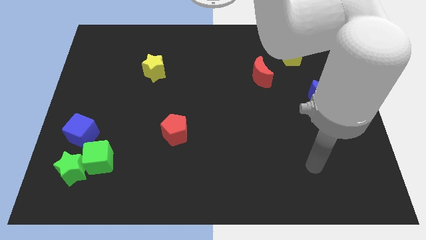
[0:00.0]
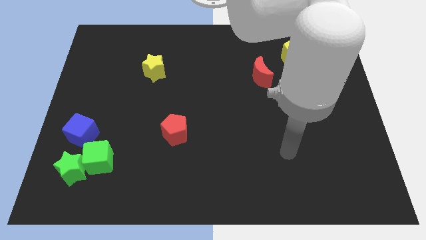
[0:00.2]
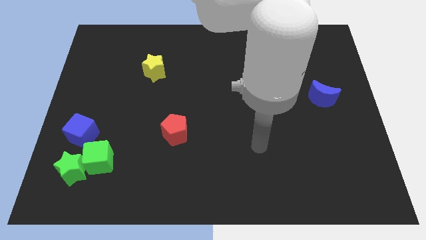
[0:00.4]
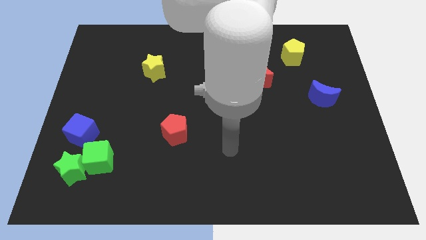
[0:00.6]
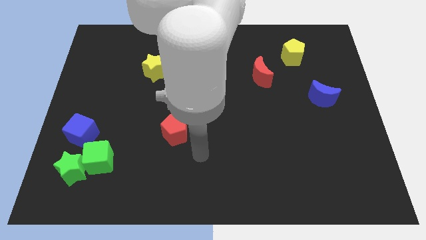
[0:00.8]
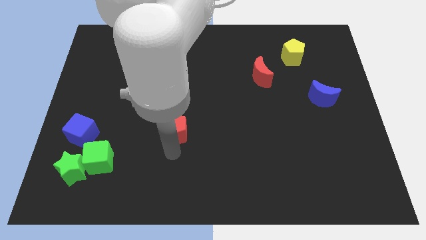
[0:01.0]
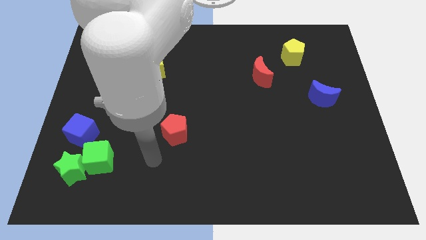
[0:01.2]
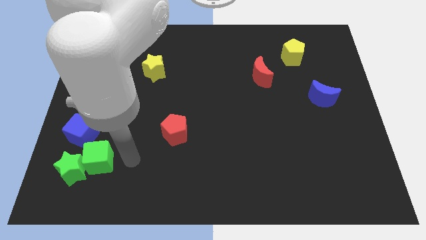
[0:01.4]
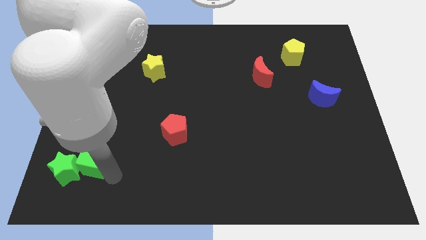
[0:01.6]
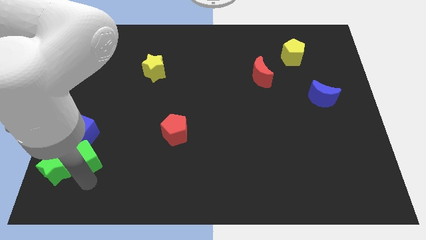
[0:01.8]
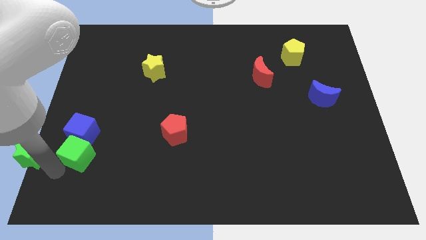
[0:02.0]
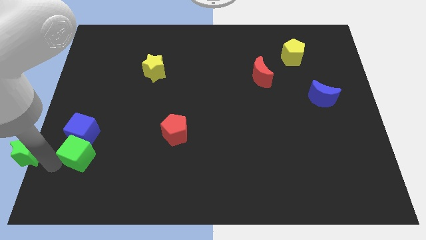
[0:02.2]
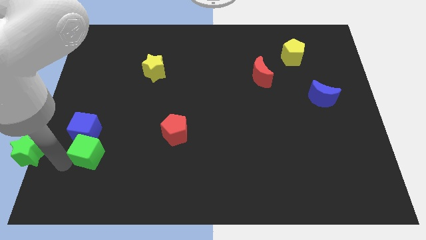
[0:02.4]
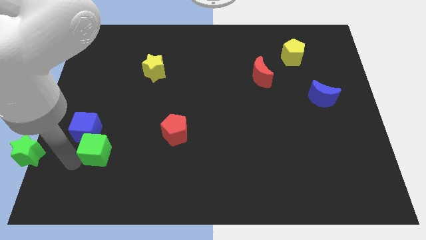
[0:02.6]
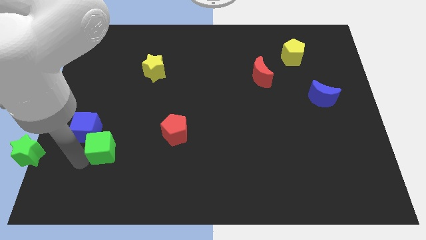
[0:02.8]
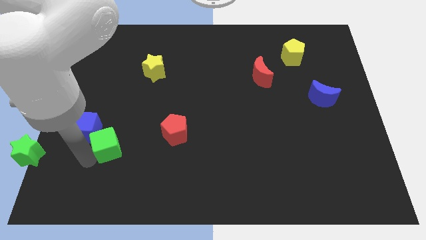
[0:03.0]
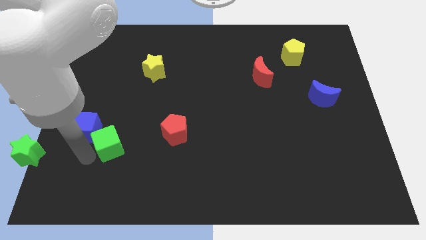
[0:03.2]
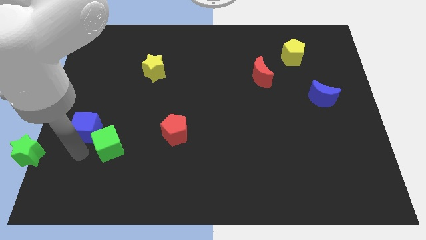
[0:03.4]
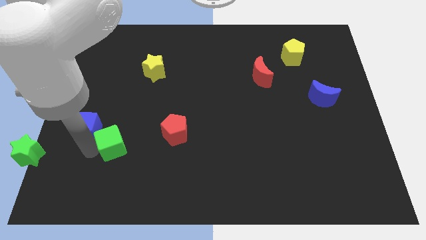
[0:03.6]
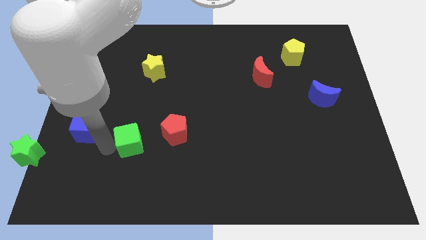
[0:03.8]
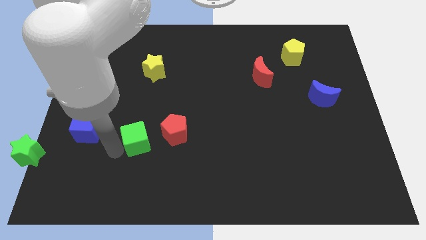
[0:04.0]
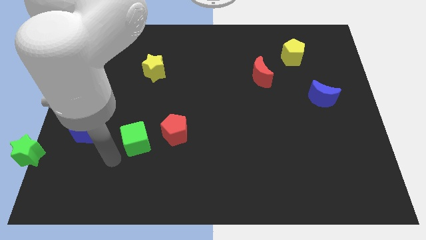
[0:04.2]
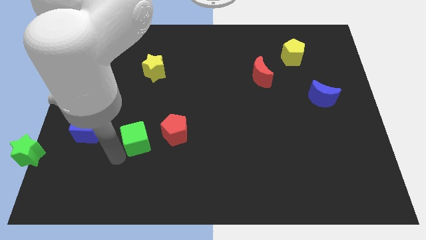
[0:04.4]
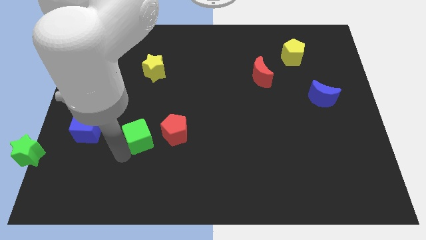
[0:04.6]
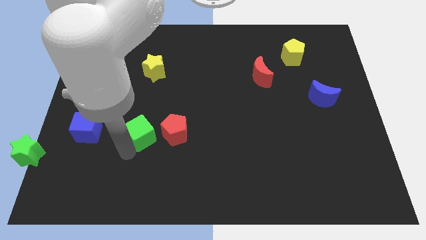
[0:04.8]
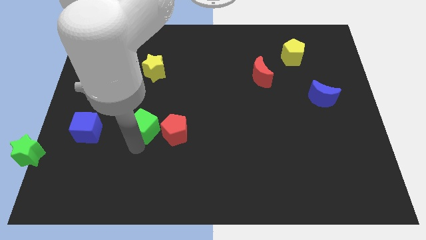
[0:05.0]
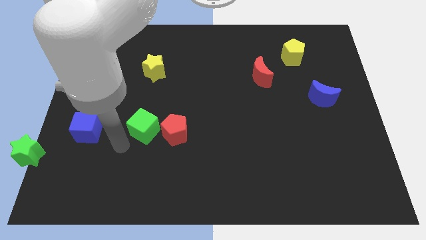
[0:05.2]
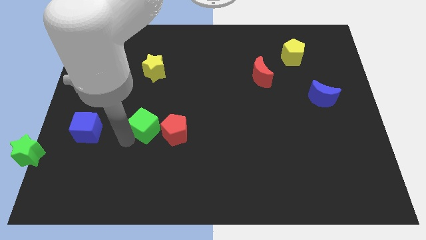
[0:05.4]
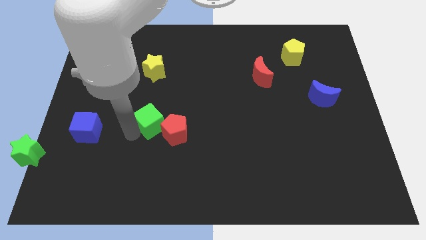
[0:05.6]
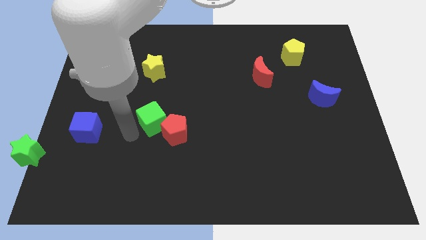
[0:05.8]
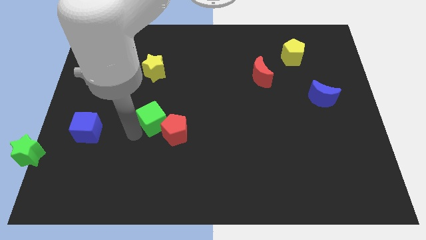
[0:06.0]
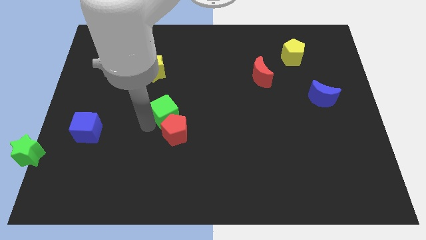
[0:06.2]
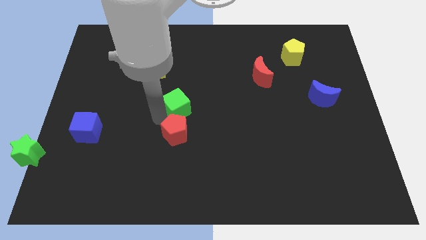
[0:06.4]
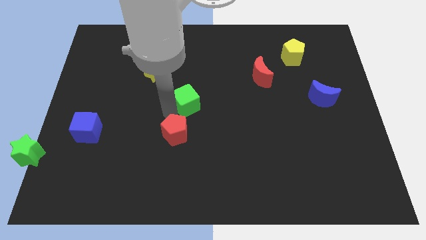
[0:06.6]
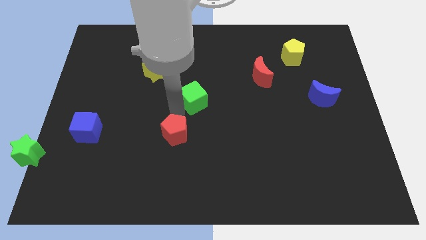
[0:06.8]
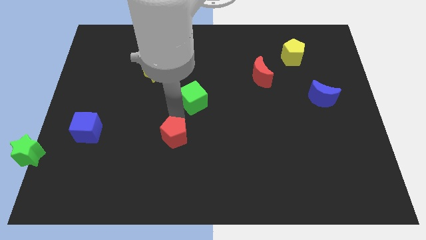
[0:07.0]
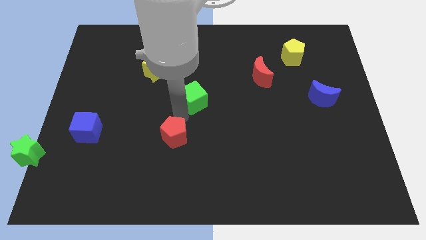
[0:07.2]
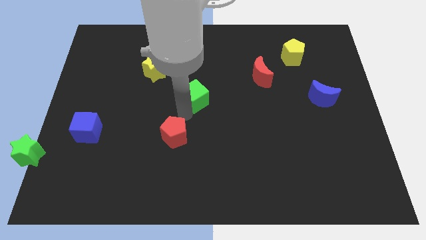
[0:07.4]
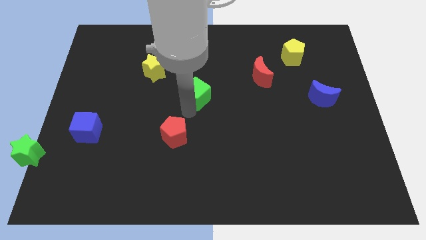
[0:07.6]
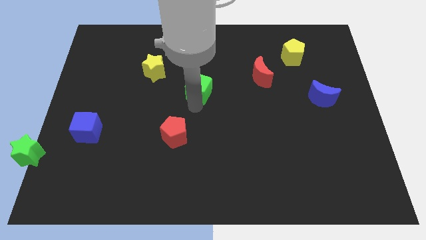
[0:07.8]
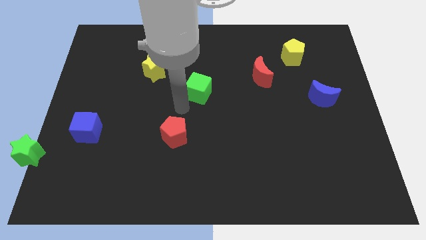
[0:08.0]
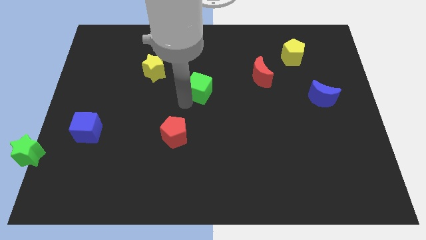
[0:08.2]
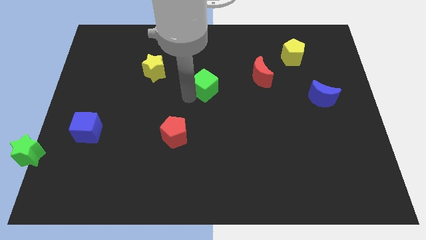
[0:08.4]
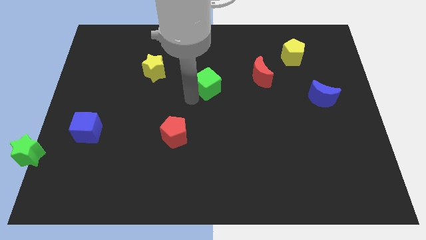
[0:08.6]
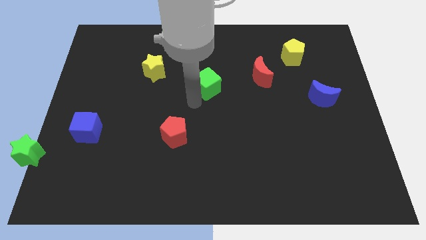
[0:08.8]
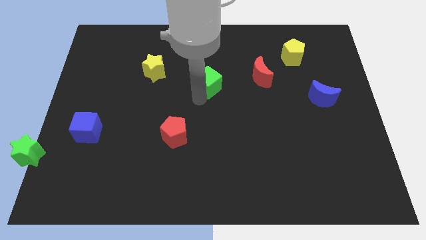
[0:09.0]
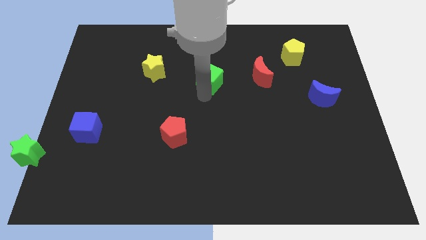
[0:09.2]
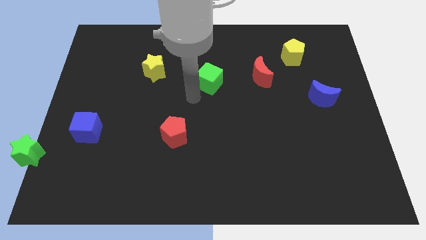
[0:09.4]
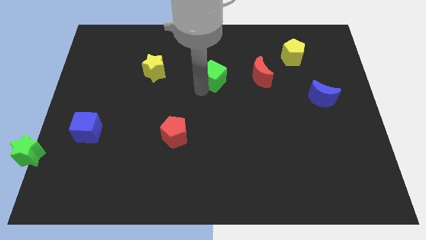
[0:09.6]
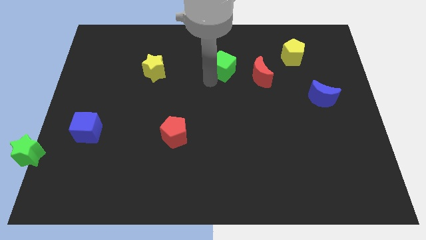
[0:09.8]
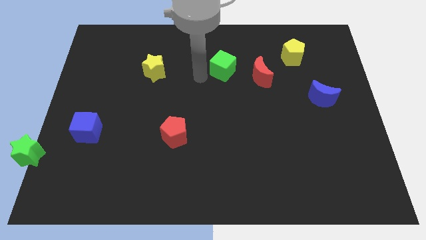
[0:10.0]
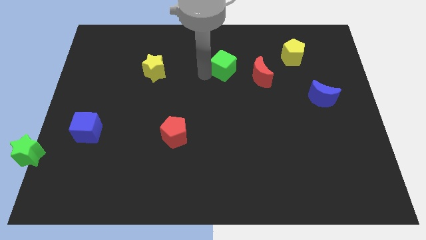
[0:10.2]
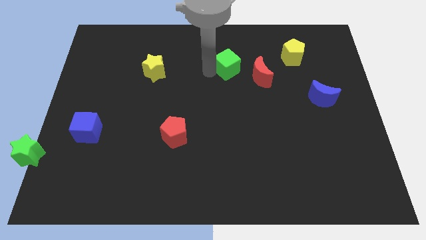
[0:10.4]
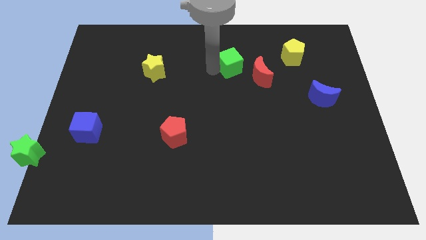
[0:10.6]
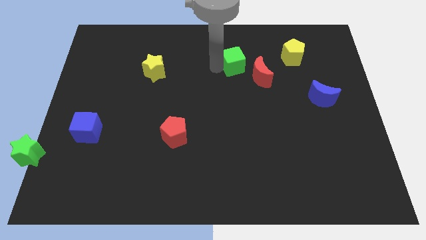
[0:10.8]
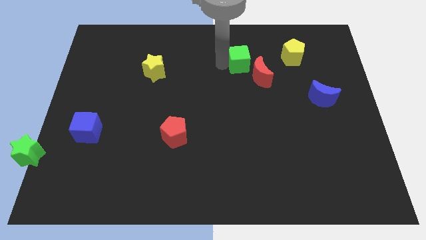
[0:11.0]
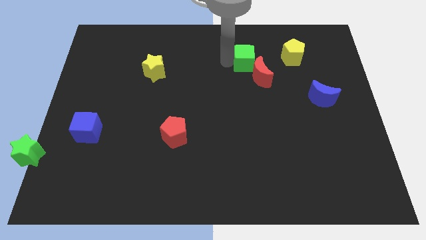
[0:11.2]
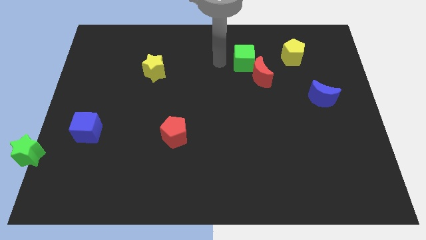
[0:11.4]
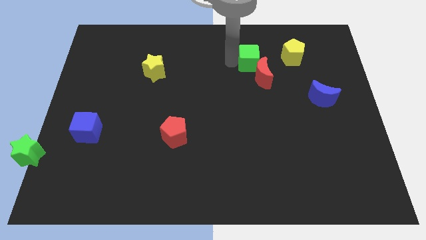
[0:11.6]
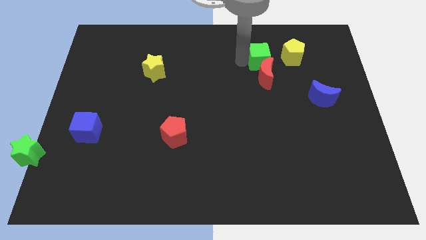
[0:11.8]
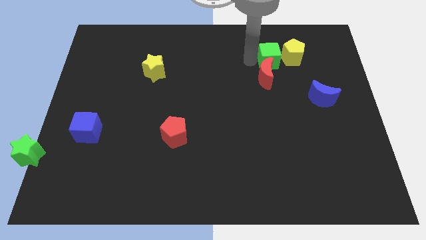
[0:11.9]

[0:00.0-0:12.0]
put the green cube next to the yellow pentagon
